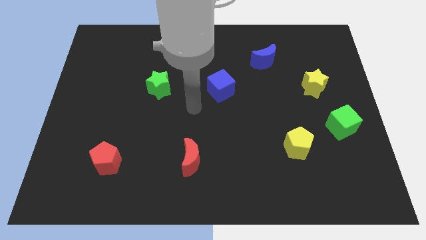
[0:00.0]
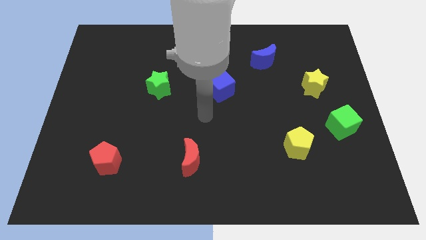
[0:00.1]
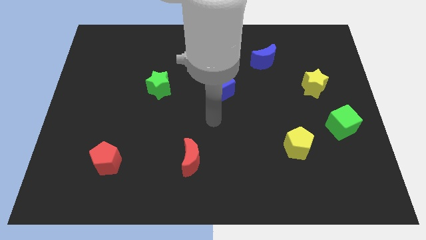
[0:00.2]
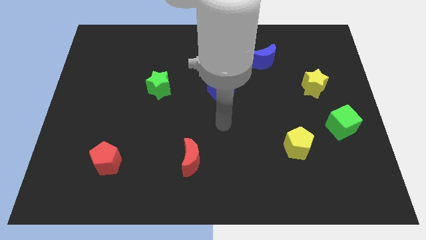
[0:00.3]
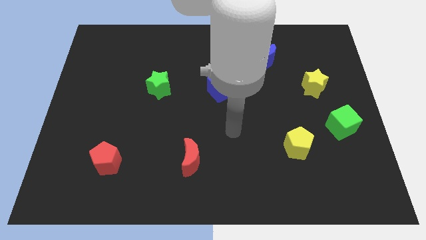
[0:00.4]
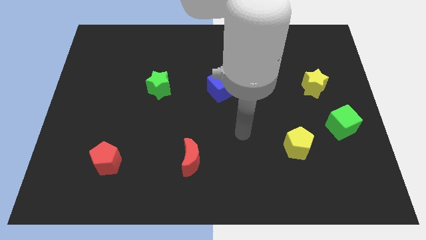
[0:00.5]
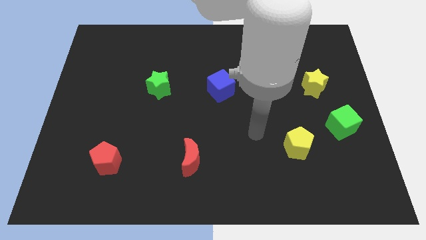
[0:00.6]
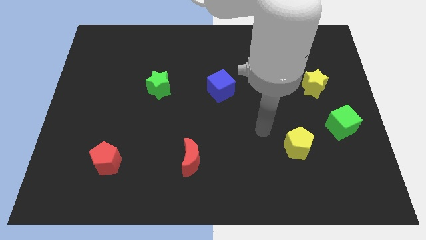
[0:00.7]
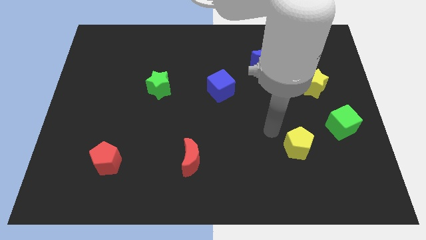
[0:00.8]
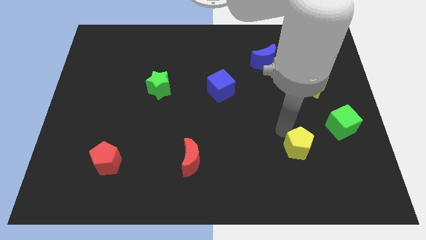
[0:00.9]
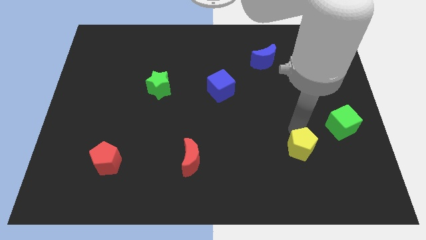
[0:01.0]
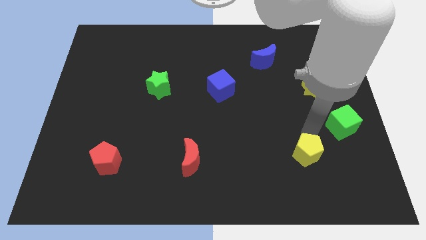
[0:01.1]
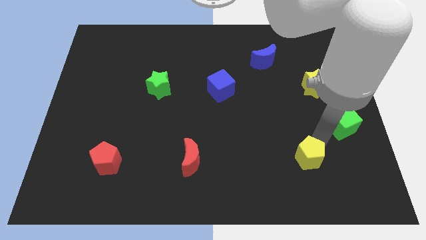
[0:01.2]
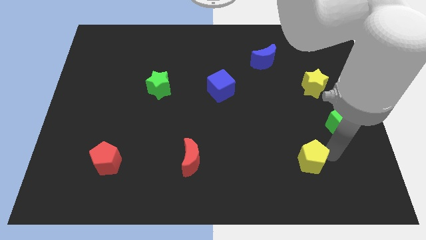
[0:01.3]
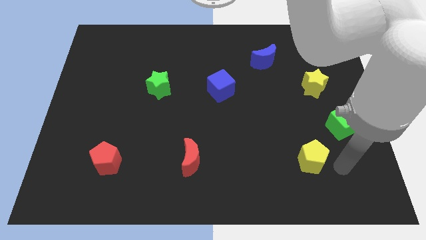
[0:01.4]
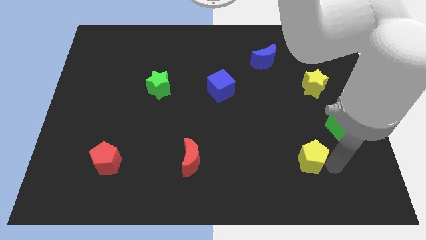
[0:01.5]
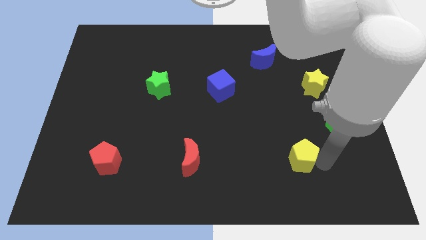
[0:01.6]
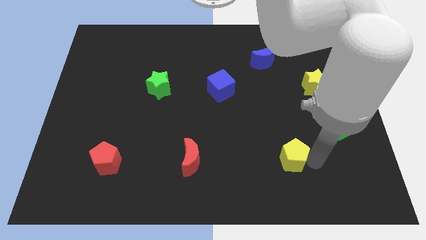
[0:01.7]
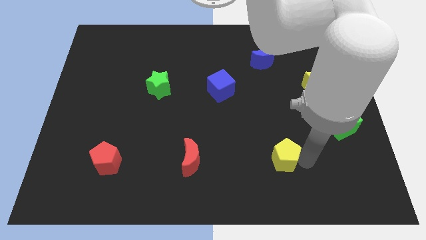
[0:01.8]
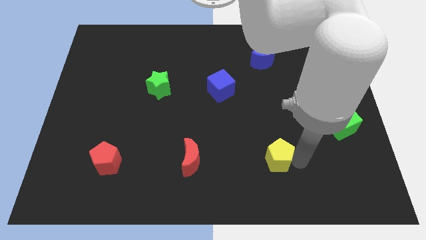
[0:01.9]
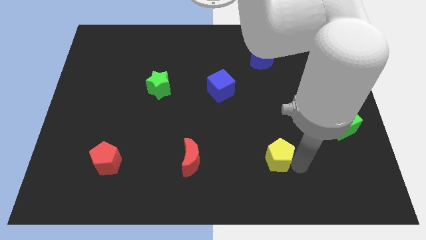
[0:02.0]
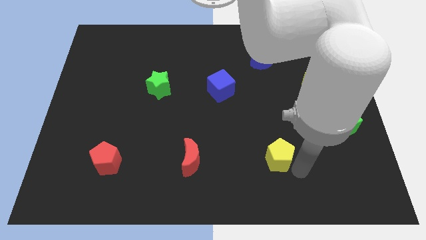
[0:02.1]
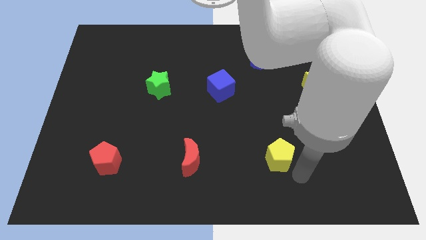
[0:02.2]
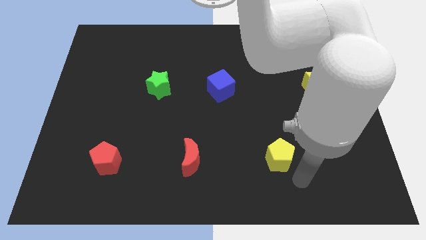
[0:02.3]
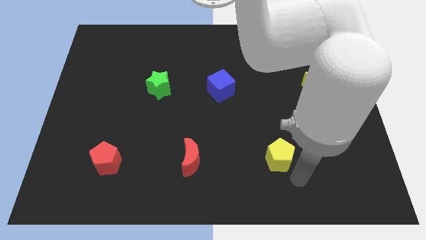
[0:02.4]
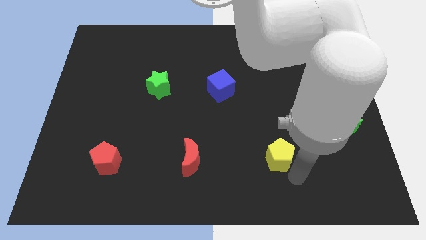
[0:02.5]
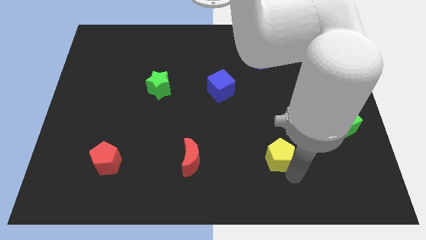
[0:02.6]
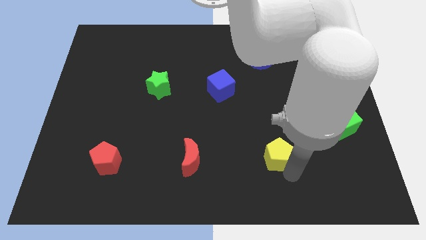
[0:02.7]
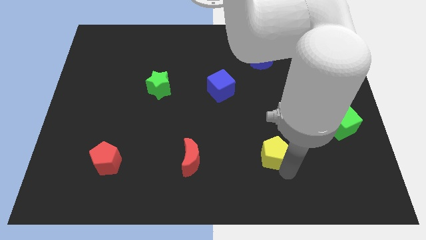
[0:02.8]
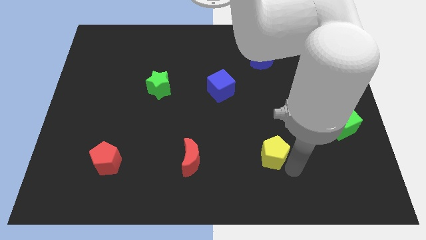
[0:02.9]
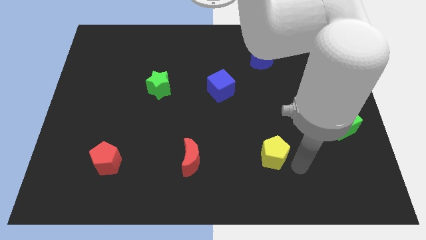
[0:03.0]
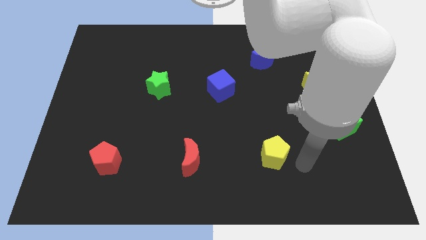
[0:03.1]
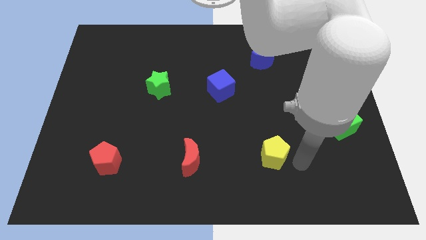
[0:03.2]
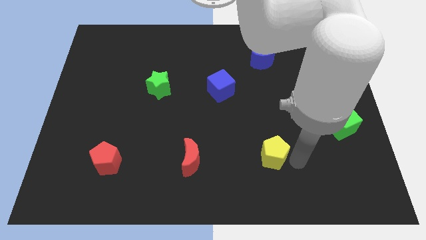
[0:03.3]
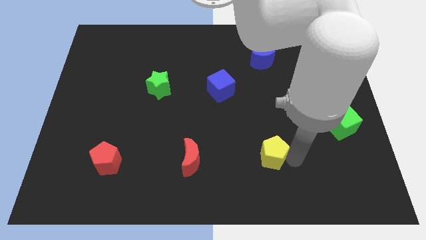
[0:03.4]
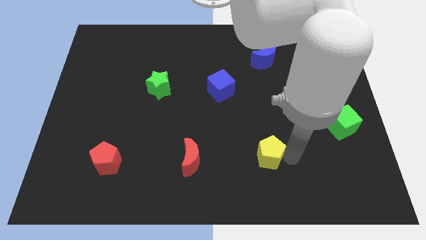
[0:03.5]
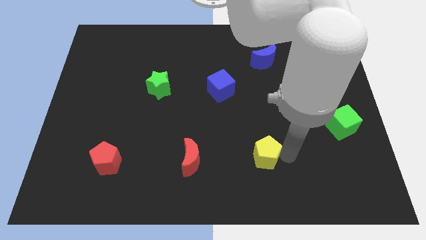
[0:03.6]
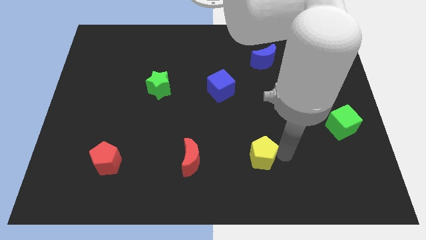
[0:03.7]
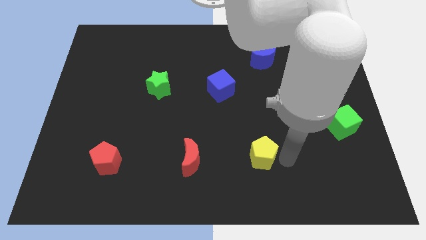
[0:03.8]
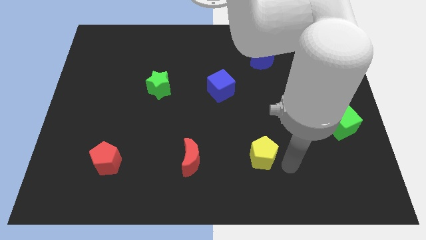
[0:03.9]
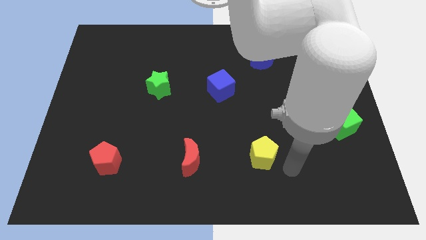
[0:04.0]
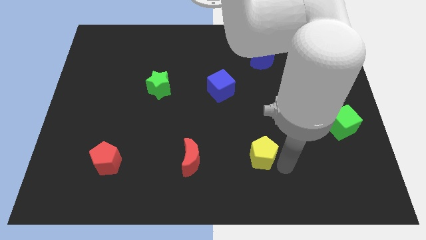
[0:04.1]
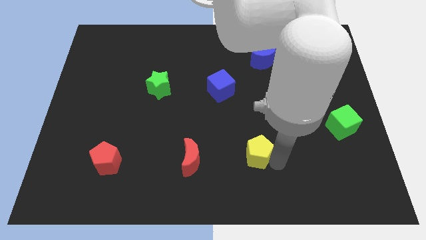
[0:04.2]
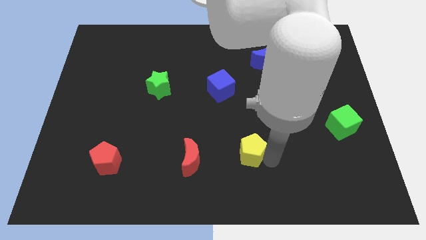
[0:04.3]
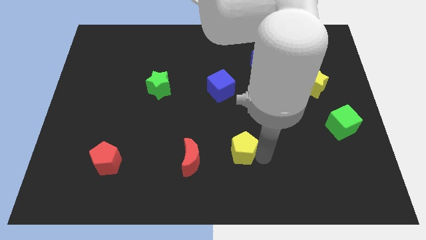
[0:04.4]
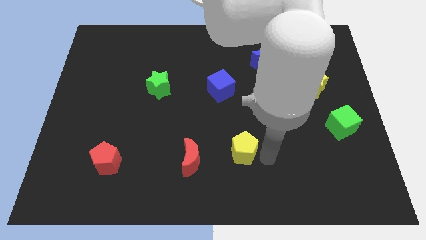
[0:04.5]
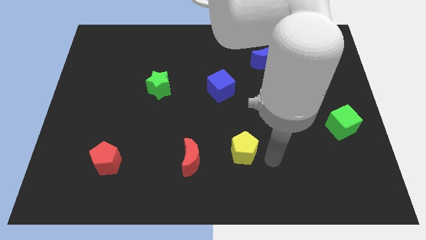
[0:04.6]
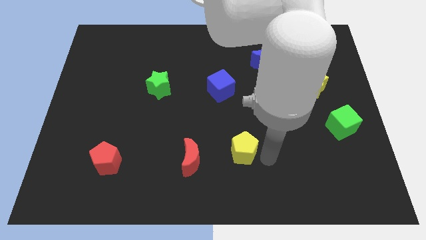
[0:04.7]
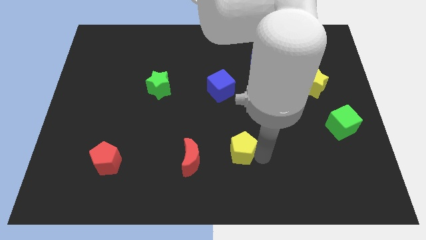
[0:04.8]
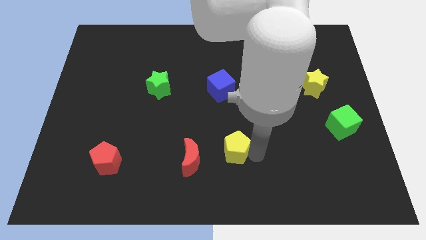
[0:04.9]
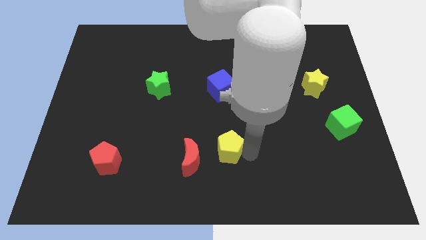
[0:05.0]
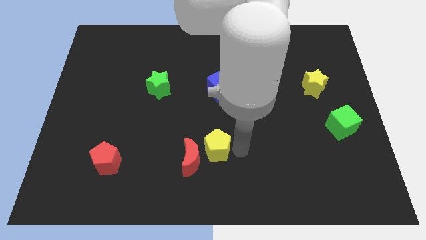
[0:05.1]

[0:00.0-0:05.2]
slide the yellow pentagon close to the red moon

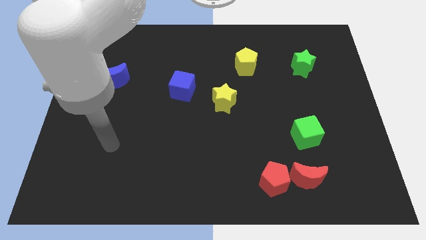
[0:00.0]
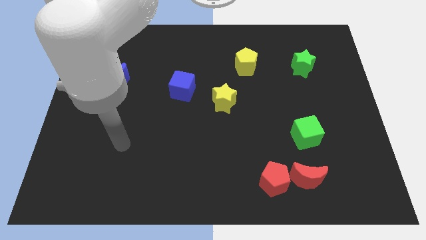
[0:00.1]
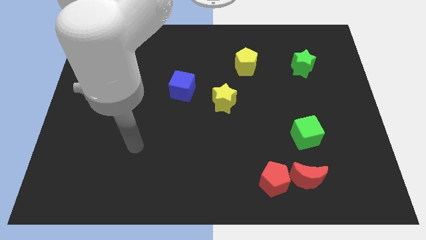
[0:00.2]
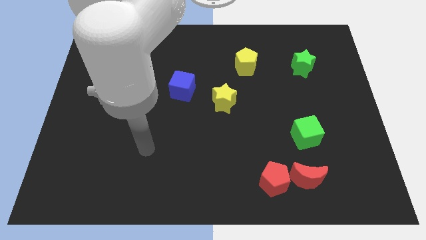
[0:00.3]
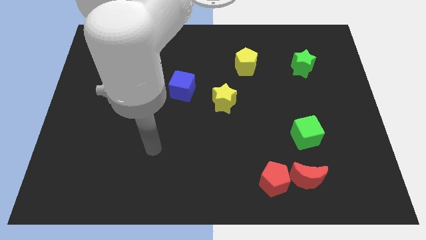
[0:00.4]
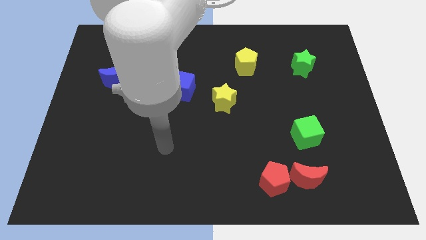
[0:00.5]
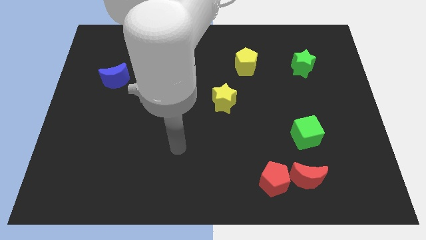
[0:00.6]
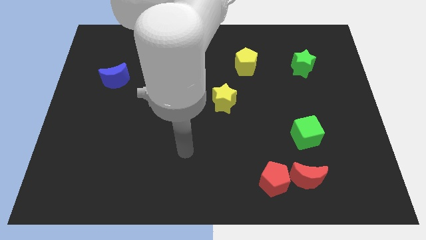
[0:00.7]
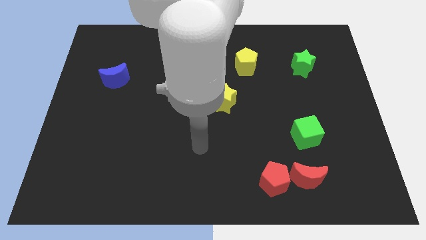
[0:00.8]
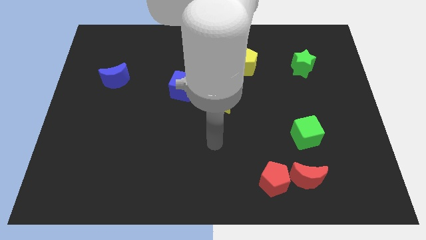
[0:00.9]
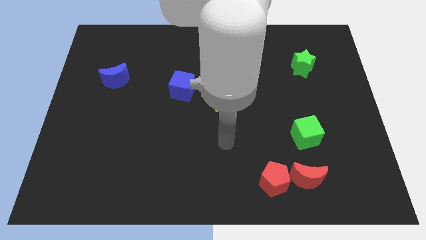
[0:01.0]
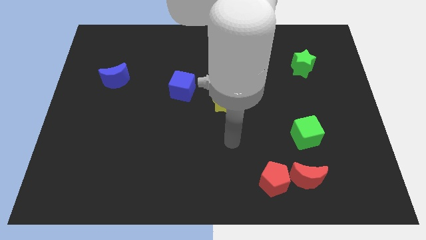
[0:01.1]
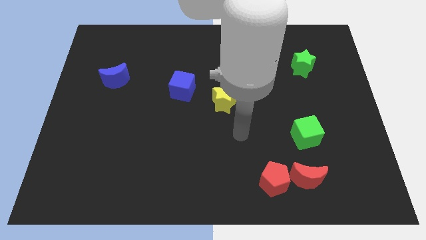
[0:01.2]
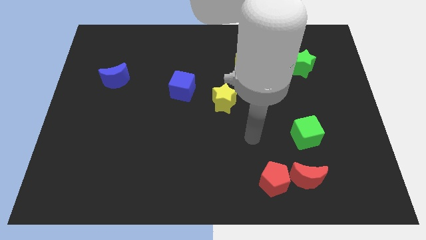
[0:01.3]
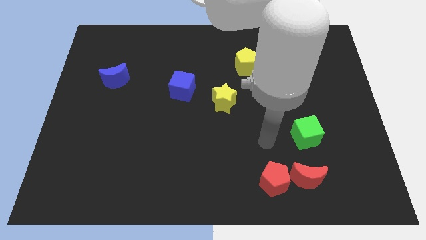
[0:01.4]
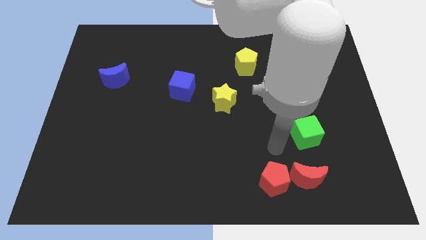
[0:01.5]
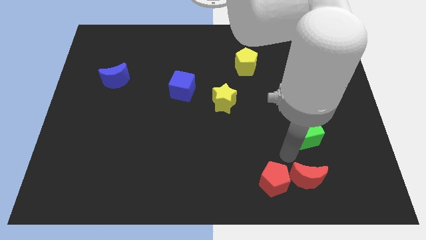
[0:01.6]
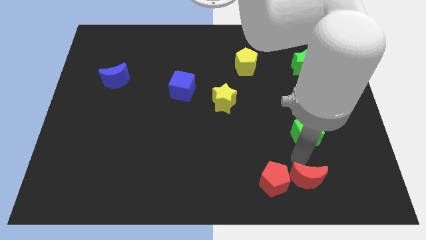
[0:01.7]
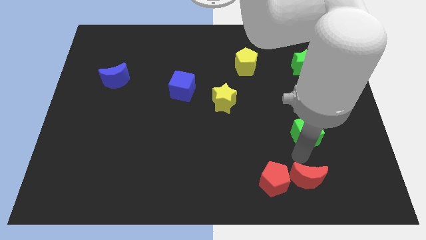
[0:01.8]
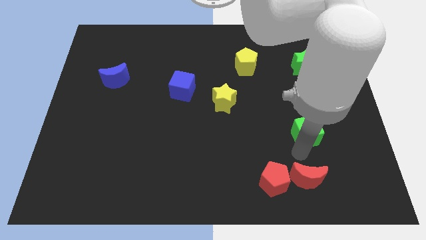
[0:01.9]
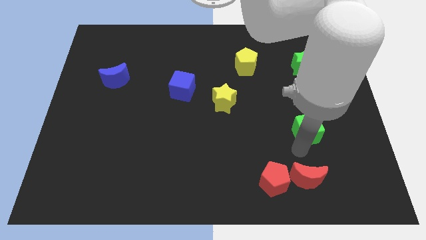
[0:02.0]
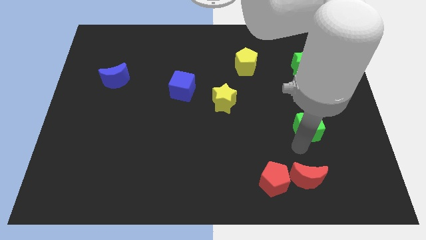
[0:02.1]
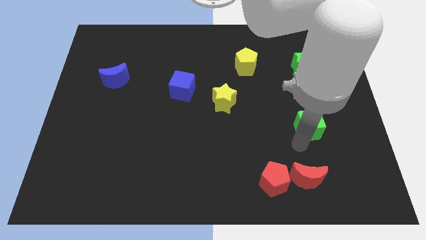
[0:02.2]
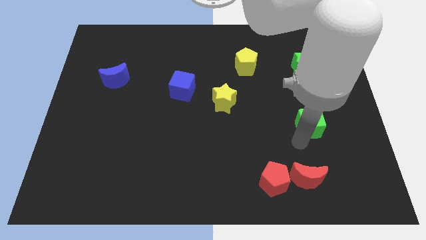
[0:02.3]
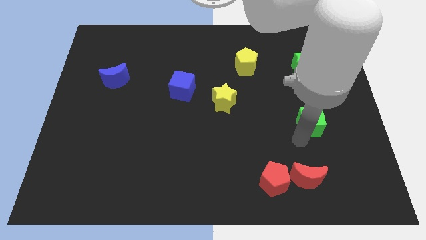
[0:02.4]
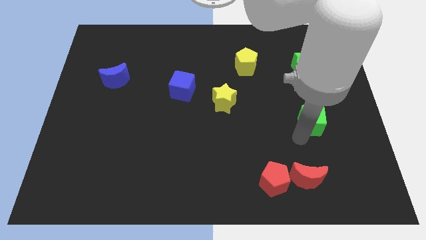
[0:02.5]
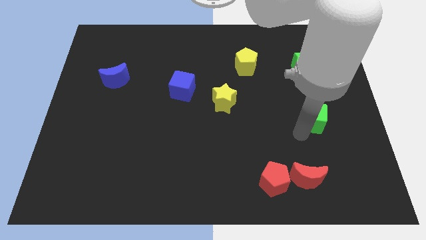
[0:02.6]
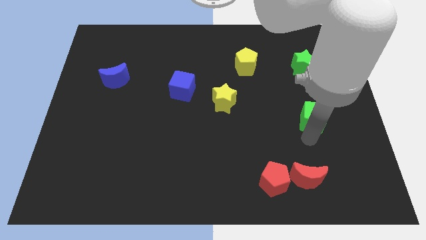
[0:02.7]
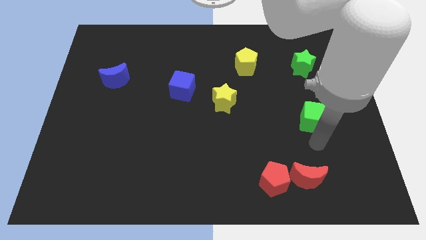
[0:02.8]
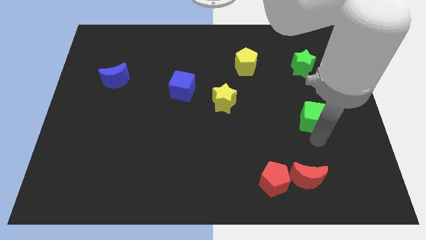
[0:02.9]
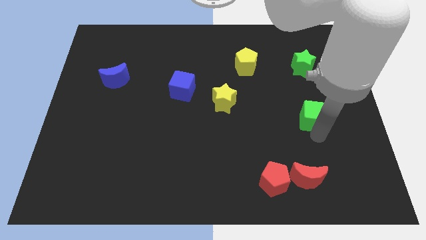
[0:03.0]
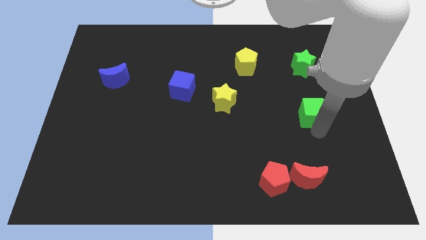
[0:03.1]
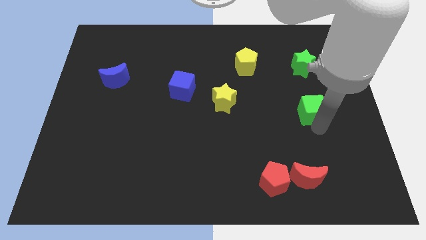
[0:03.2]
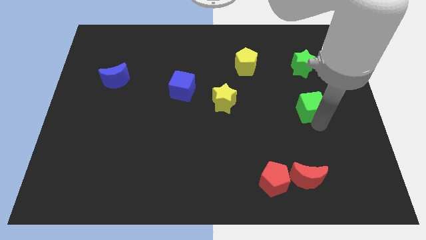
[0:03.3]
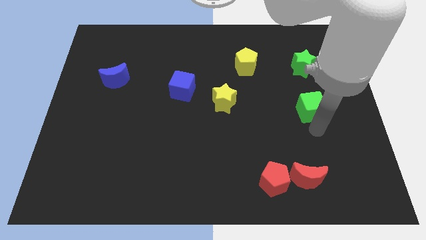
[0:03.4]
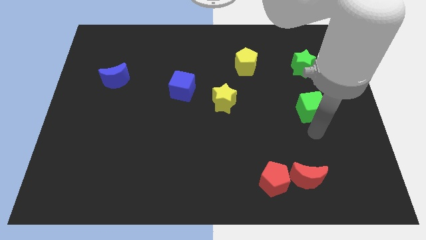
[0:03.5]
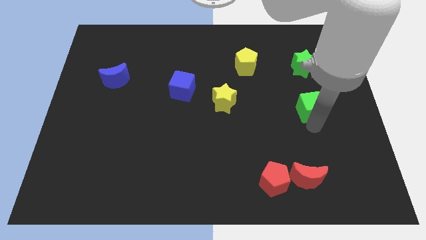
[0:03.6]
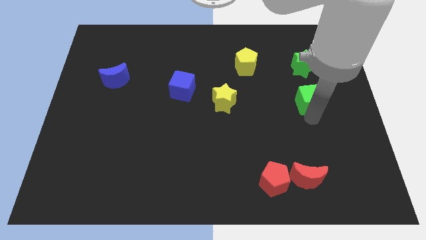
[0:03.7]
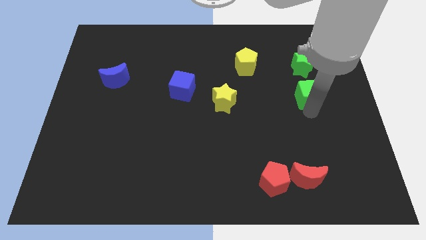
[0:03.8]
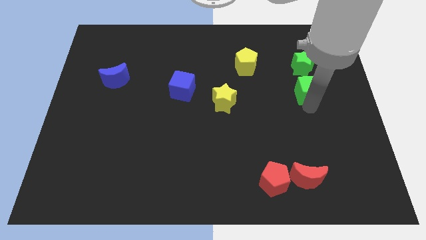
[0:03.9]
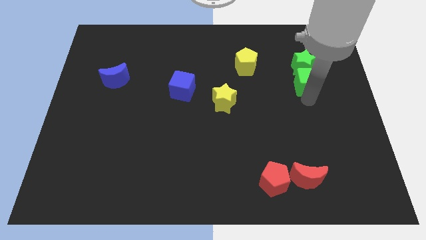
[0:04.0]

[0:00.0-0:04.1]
push the green cube close to the green star
